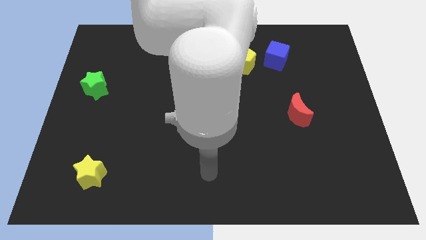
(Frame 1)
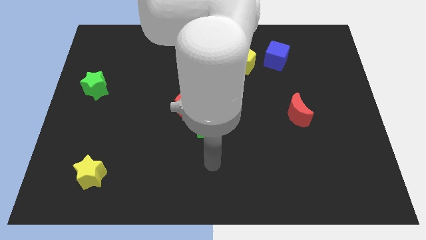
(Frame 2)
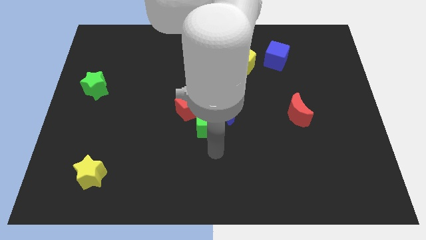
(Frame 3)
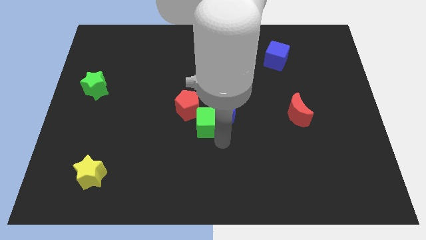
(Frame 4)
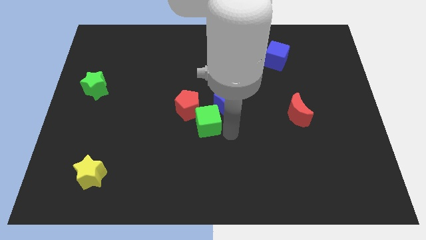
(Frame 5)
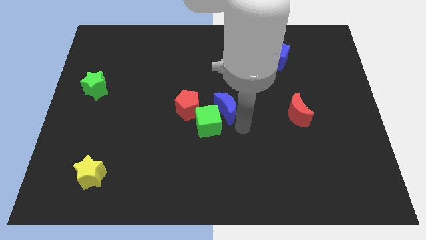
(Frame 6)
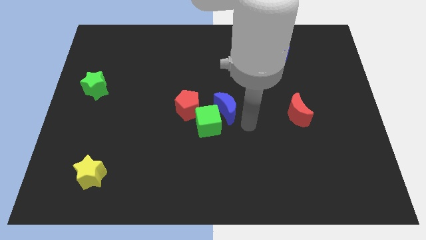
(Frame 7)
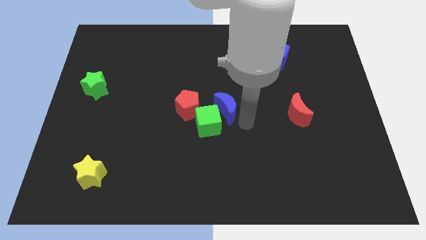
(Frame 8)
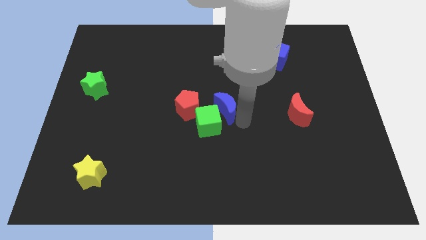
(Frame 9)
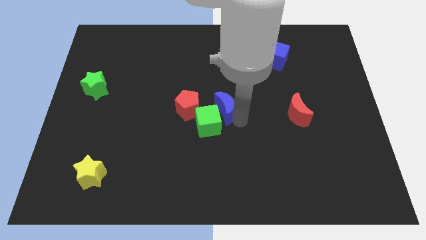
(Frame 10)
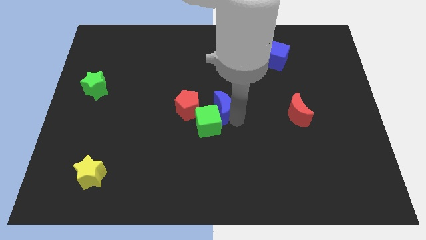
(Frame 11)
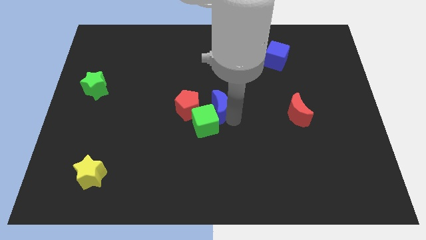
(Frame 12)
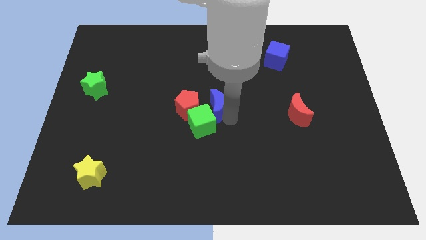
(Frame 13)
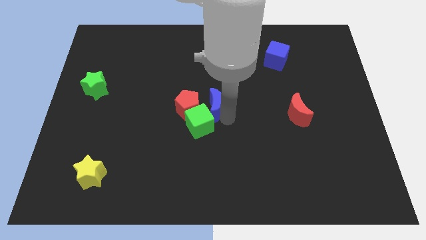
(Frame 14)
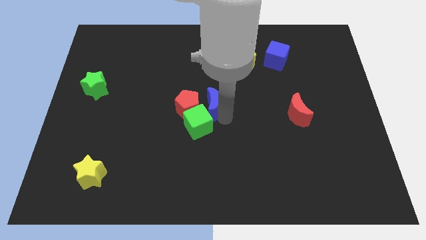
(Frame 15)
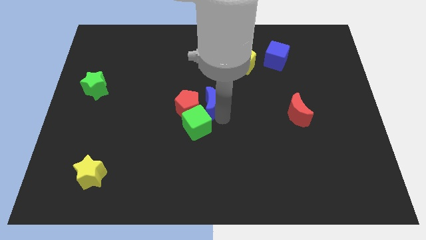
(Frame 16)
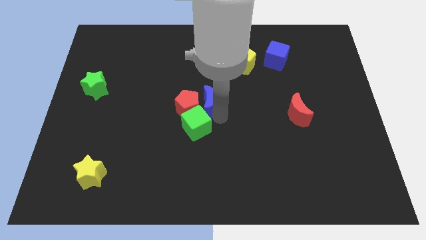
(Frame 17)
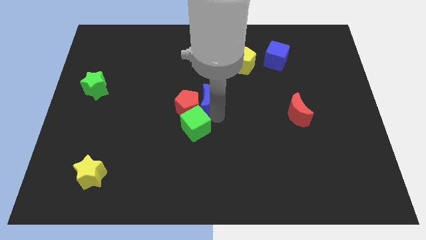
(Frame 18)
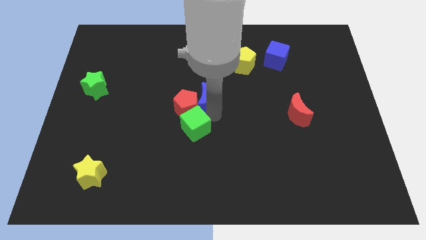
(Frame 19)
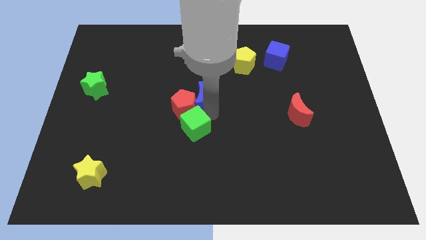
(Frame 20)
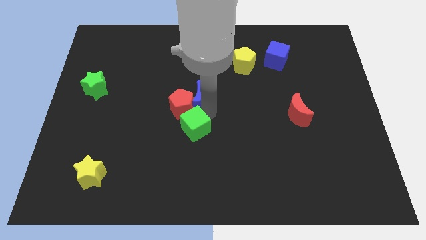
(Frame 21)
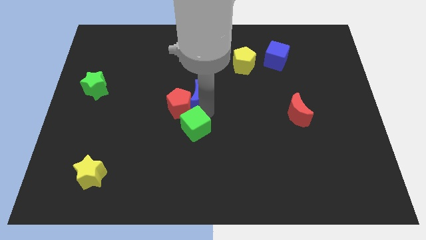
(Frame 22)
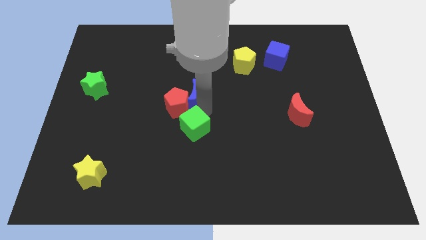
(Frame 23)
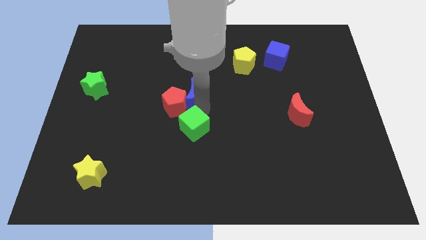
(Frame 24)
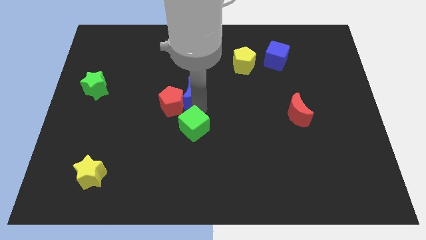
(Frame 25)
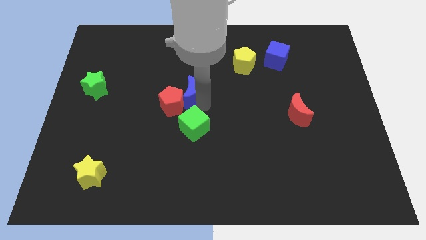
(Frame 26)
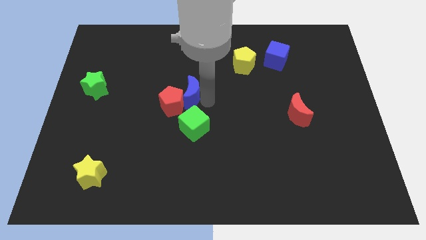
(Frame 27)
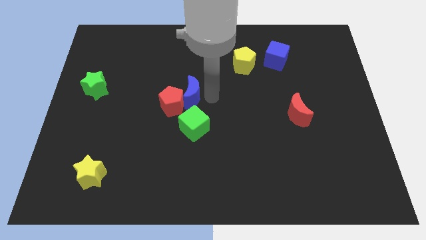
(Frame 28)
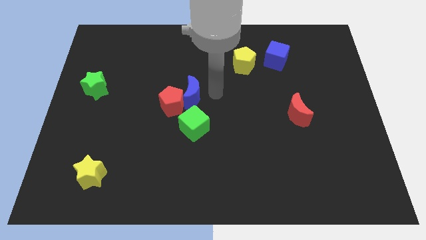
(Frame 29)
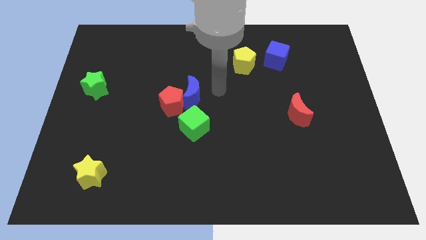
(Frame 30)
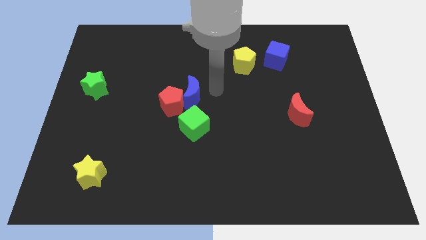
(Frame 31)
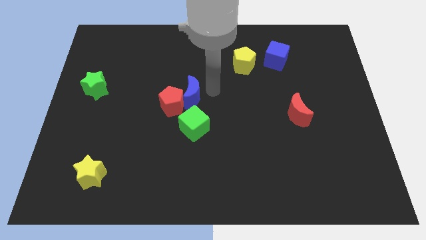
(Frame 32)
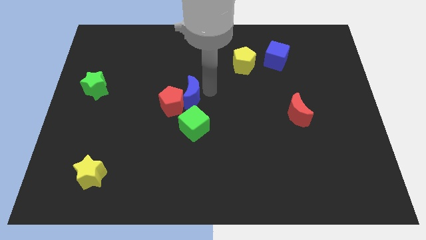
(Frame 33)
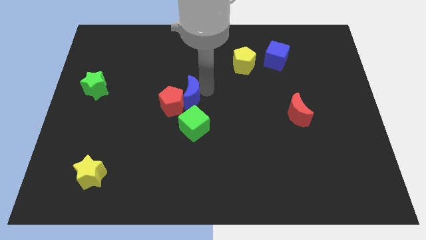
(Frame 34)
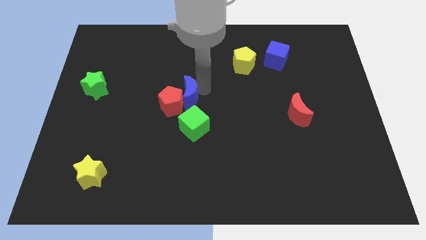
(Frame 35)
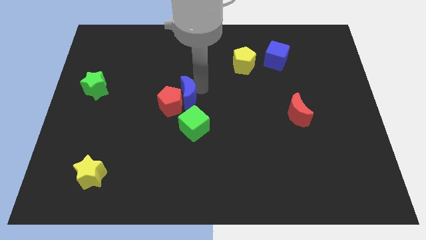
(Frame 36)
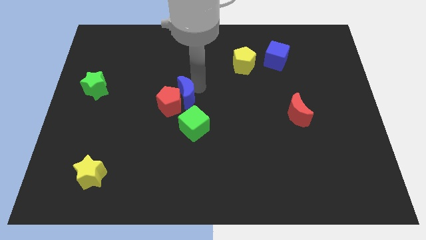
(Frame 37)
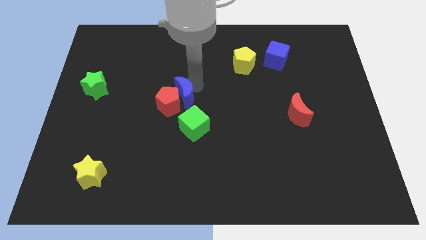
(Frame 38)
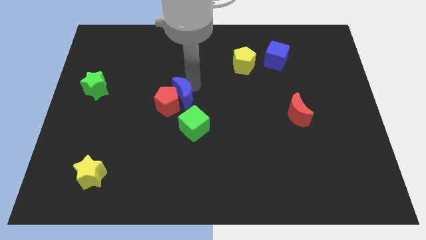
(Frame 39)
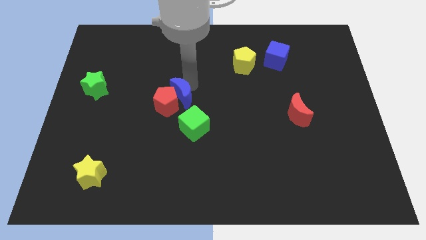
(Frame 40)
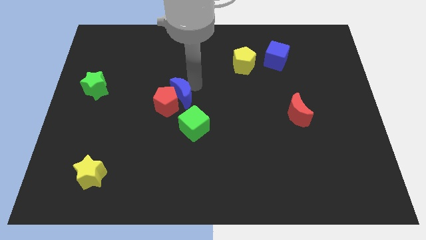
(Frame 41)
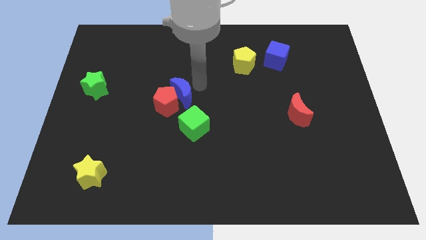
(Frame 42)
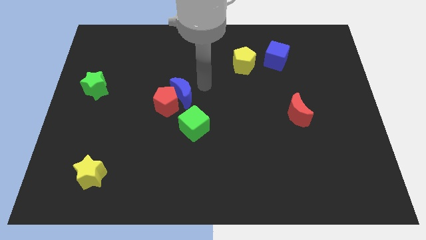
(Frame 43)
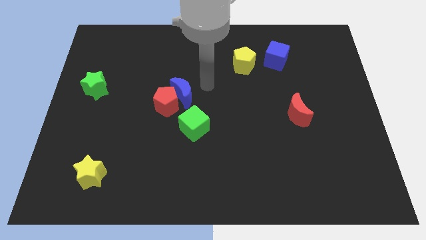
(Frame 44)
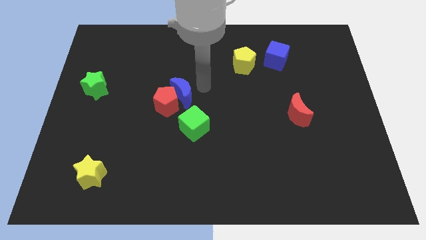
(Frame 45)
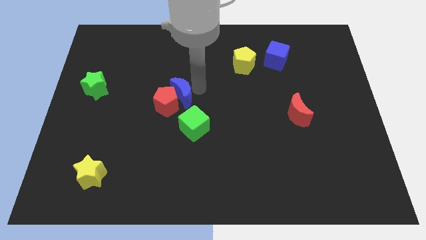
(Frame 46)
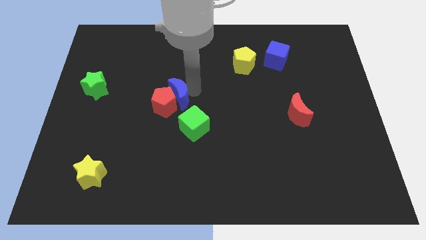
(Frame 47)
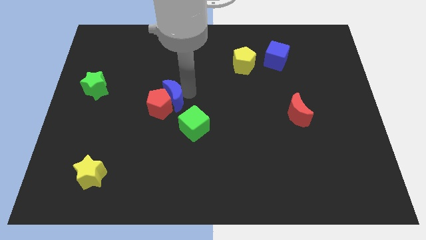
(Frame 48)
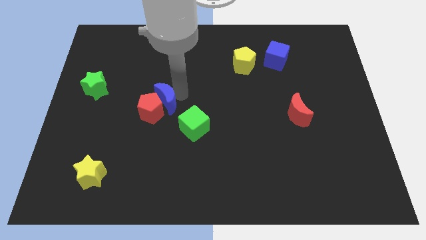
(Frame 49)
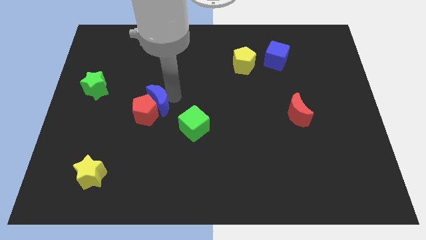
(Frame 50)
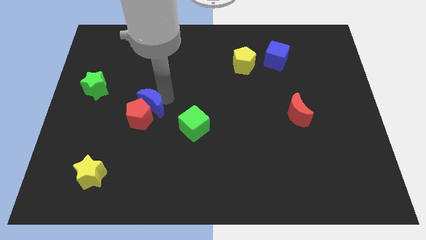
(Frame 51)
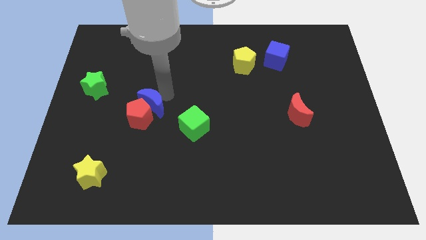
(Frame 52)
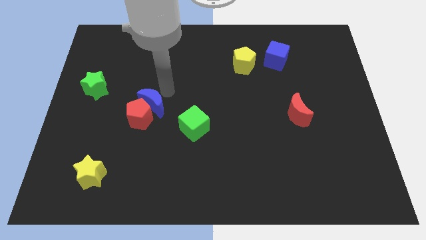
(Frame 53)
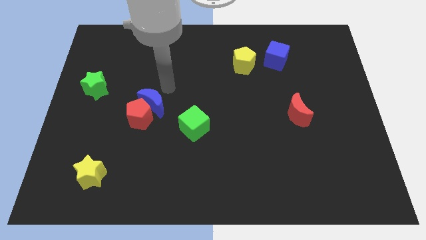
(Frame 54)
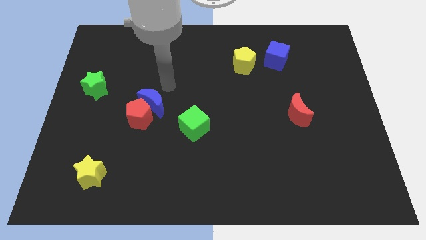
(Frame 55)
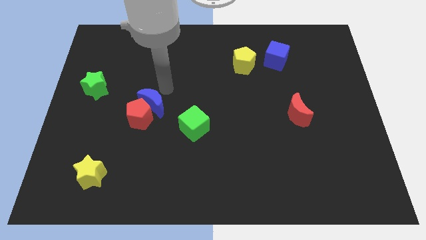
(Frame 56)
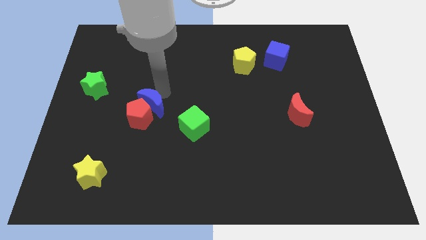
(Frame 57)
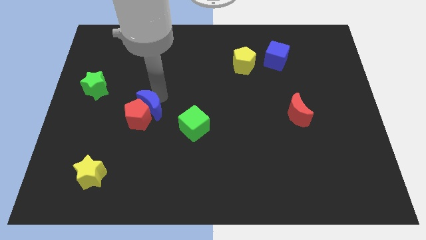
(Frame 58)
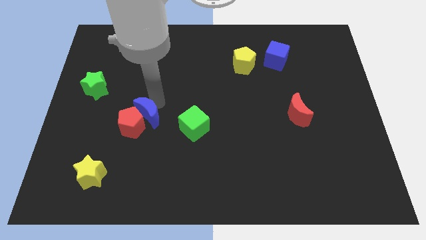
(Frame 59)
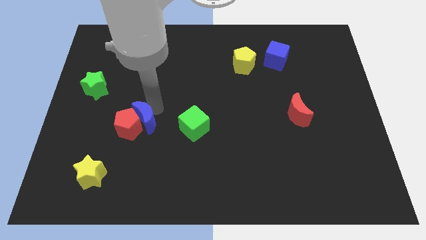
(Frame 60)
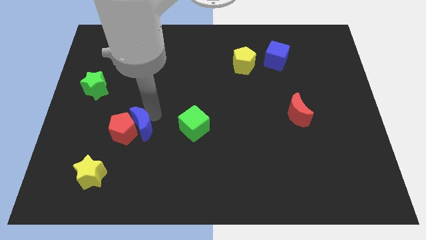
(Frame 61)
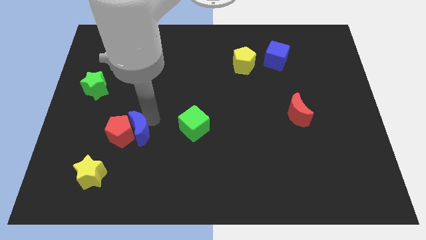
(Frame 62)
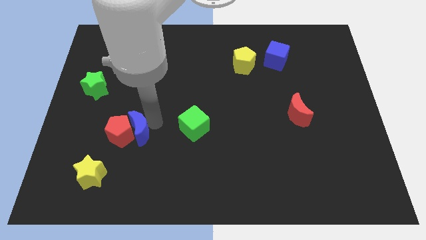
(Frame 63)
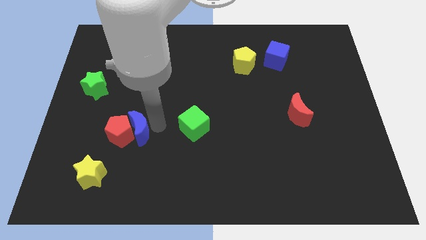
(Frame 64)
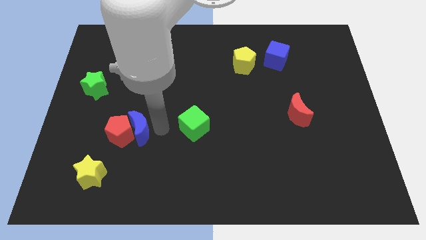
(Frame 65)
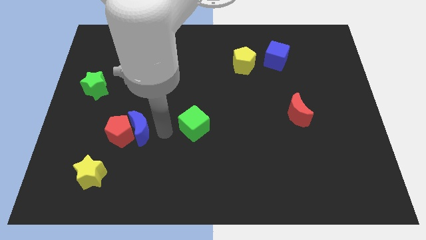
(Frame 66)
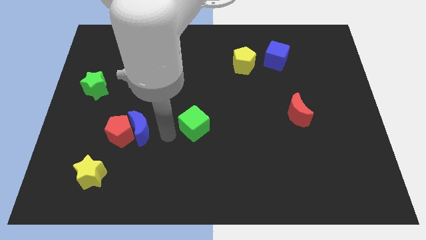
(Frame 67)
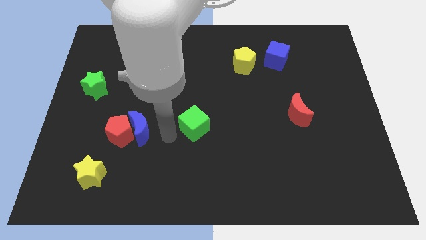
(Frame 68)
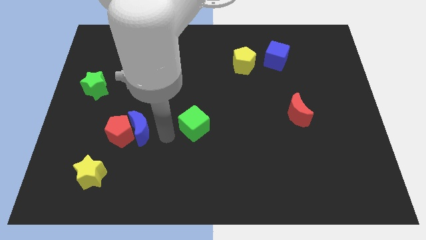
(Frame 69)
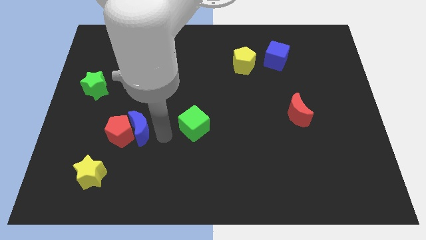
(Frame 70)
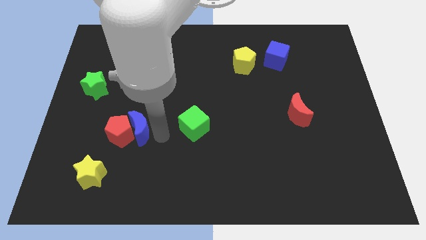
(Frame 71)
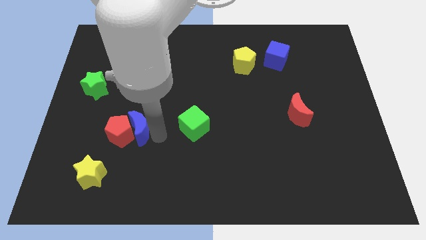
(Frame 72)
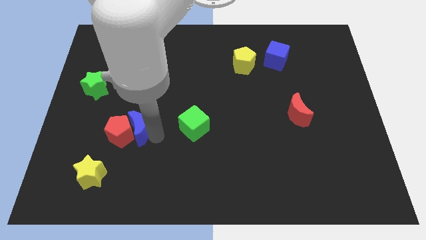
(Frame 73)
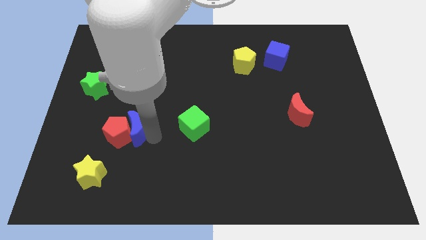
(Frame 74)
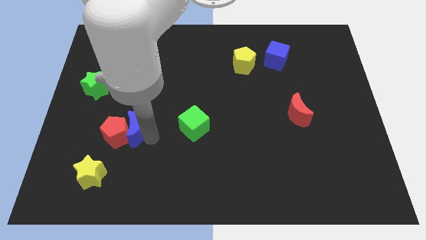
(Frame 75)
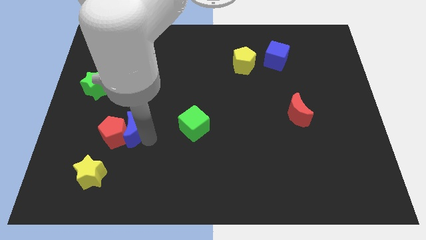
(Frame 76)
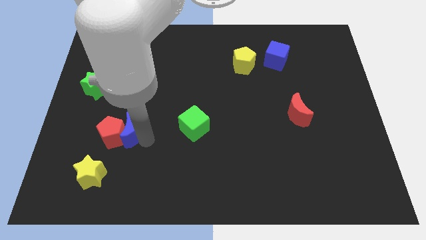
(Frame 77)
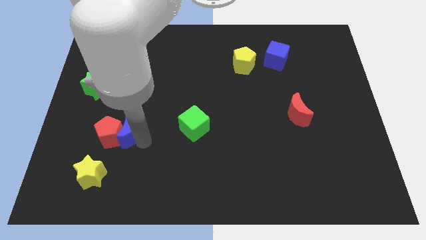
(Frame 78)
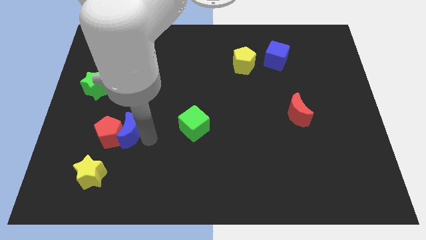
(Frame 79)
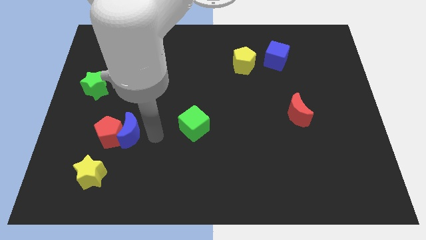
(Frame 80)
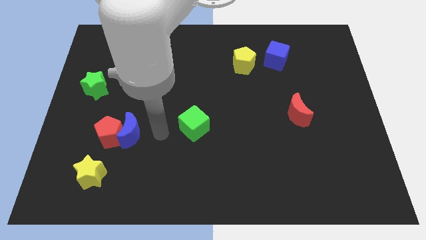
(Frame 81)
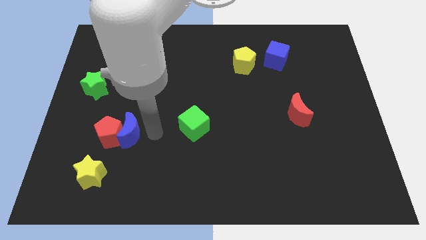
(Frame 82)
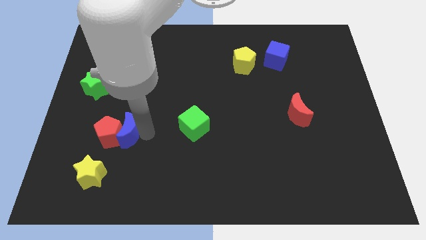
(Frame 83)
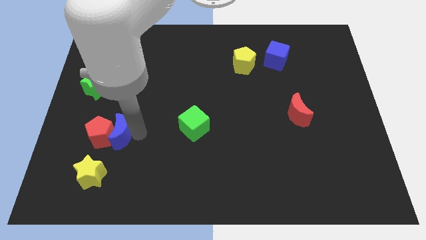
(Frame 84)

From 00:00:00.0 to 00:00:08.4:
push the blue moon to the top of the yellow star
